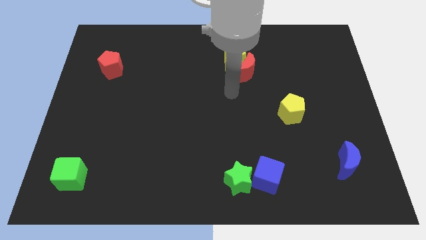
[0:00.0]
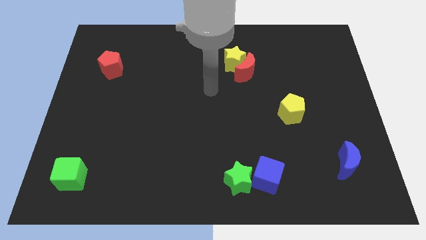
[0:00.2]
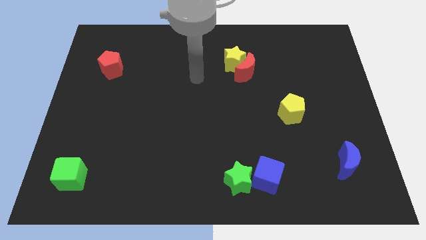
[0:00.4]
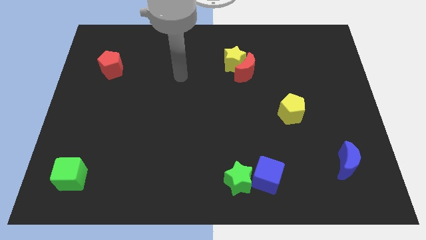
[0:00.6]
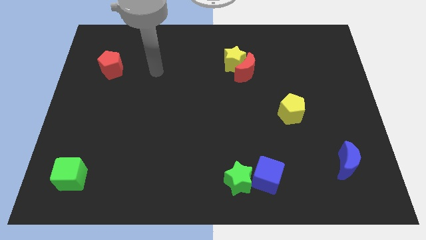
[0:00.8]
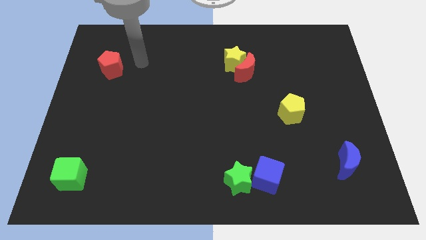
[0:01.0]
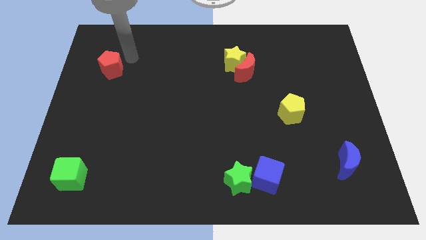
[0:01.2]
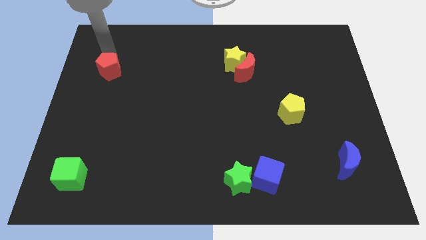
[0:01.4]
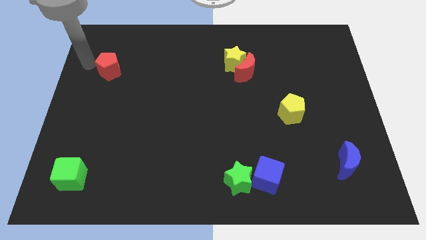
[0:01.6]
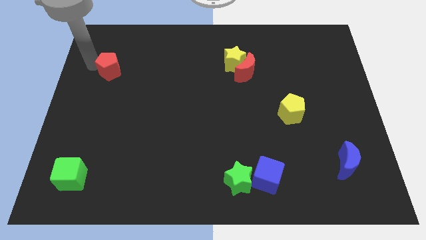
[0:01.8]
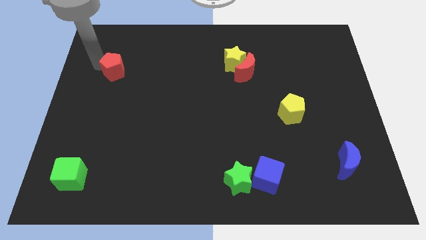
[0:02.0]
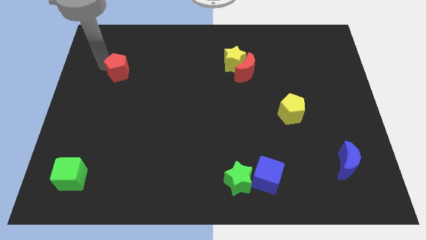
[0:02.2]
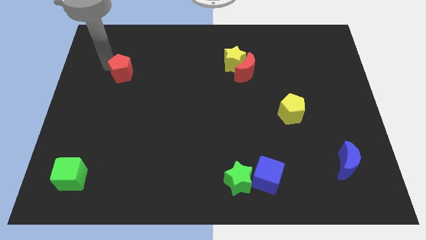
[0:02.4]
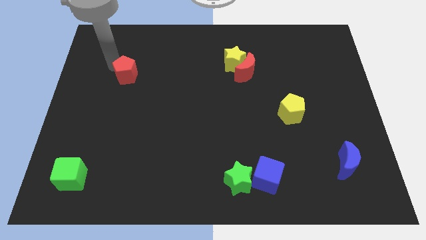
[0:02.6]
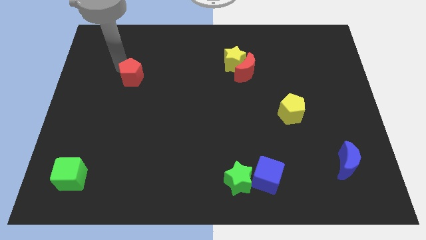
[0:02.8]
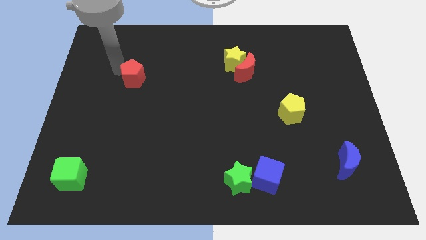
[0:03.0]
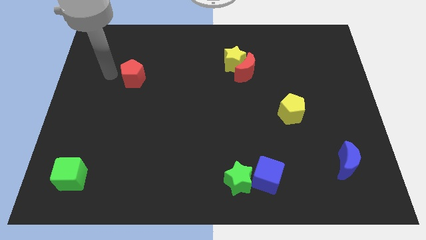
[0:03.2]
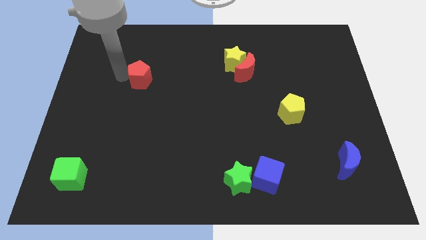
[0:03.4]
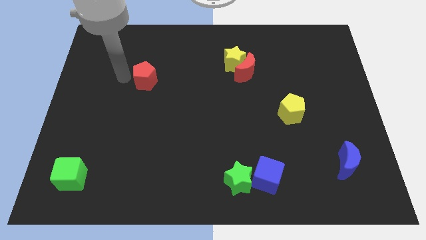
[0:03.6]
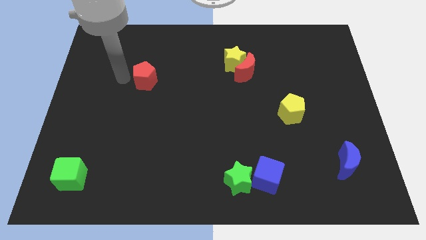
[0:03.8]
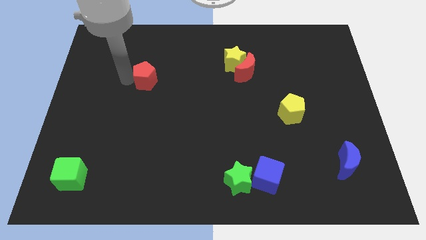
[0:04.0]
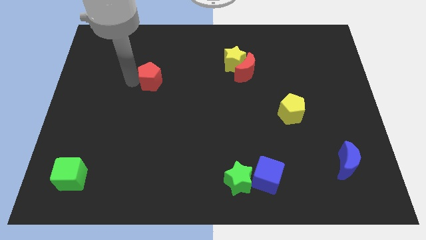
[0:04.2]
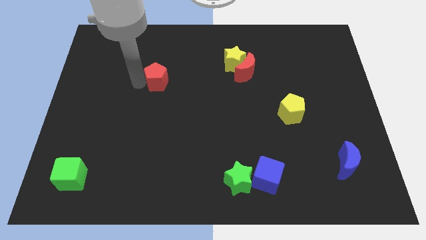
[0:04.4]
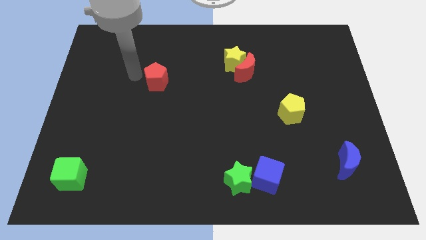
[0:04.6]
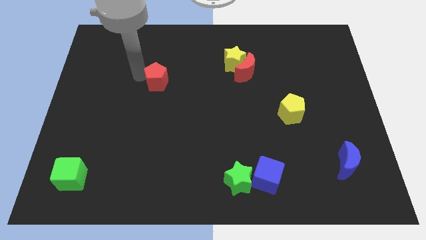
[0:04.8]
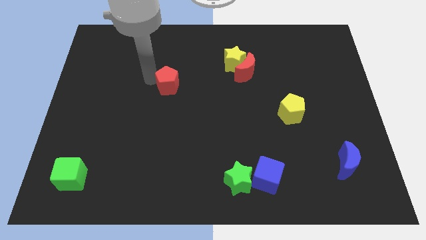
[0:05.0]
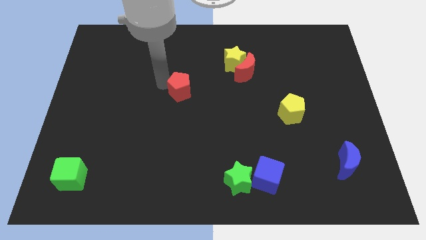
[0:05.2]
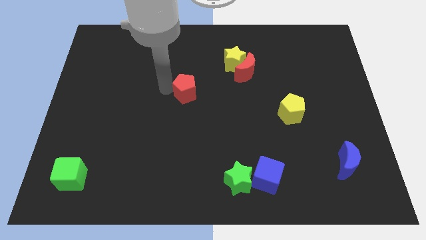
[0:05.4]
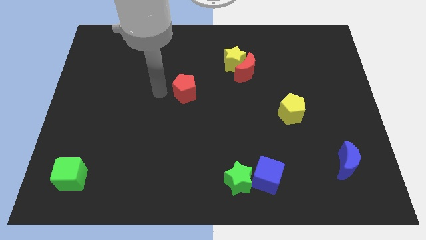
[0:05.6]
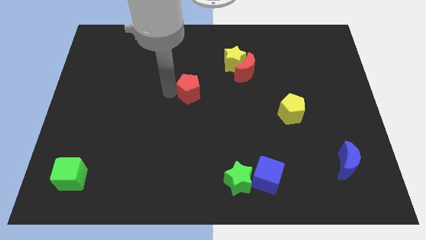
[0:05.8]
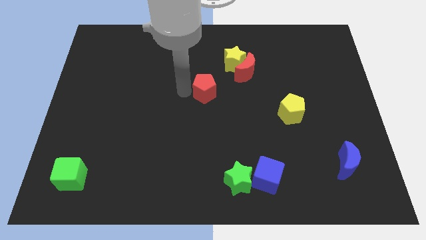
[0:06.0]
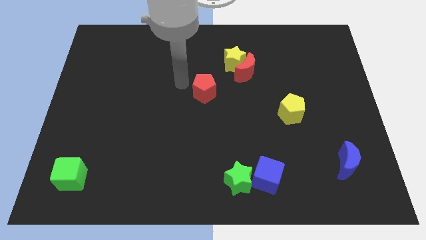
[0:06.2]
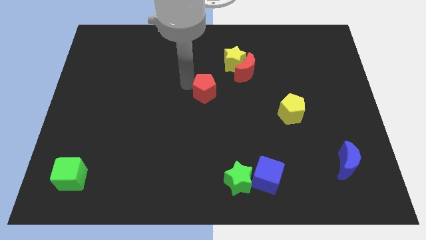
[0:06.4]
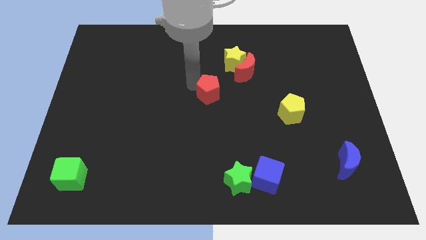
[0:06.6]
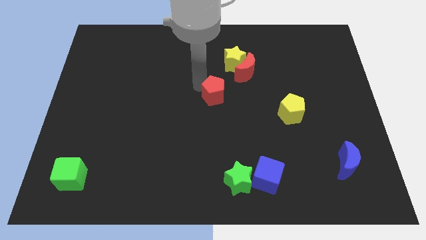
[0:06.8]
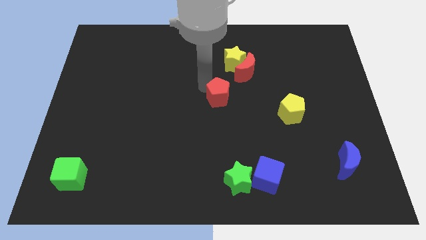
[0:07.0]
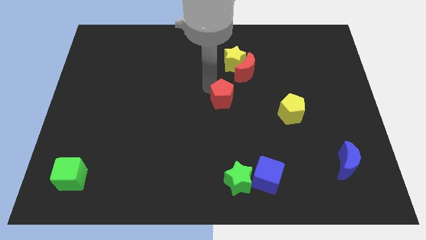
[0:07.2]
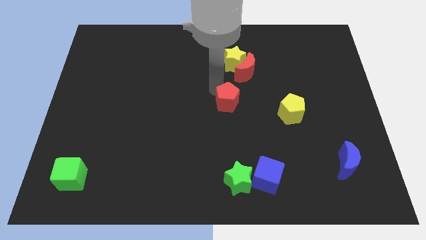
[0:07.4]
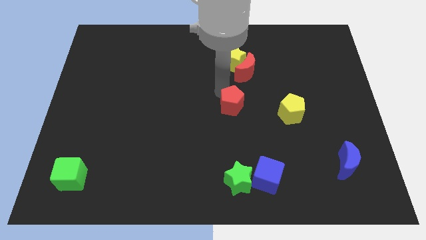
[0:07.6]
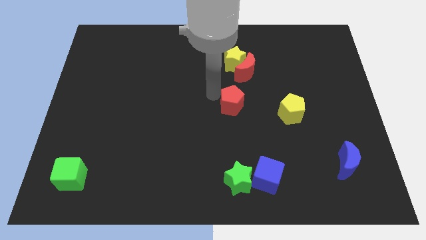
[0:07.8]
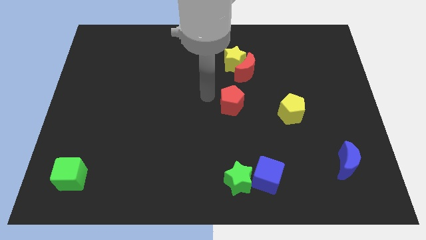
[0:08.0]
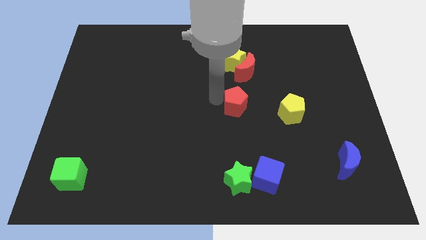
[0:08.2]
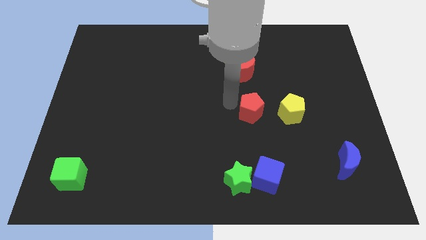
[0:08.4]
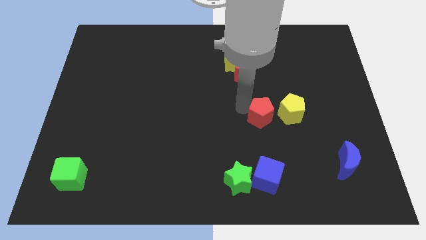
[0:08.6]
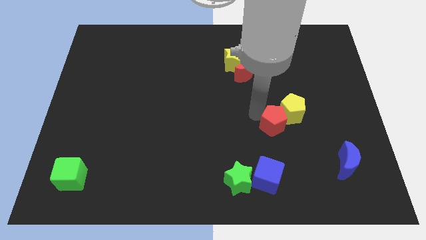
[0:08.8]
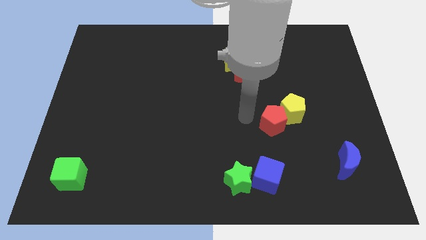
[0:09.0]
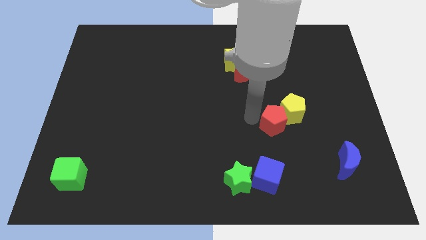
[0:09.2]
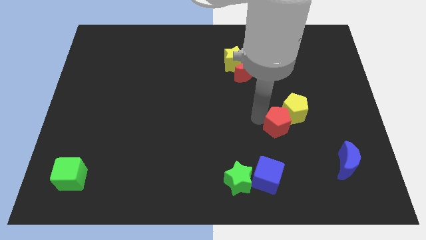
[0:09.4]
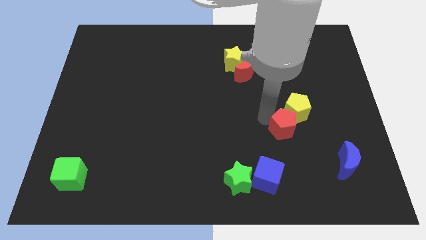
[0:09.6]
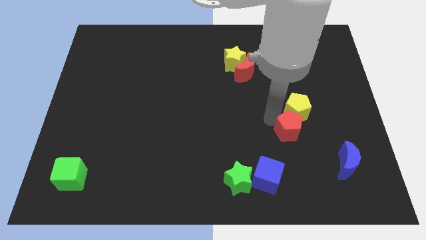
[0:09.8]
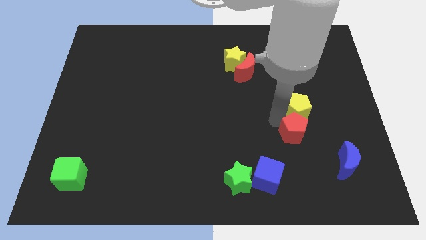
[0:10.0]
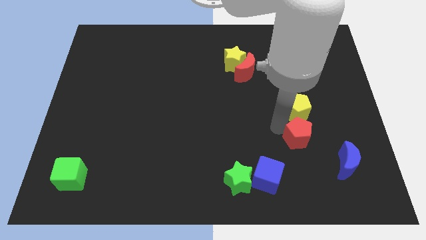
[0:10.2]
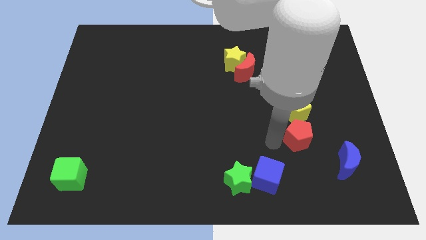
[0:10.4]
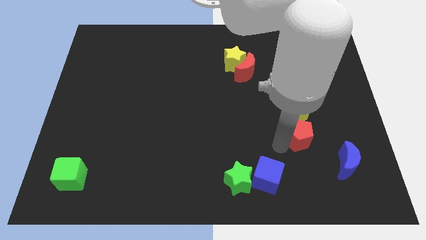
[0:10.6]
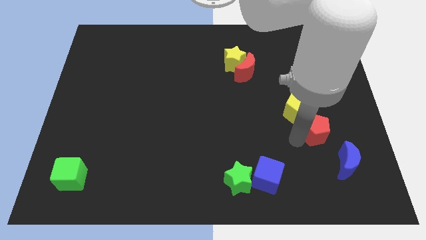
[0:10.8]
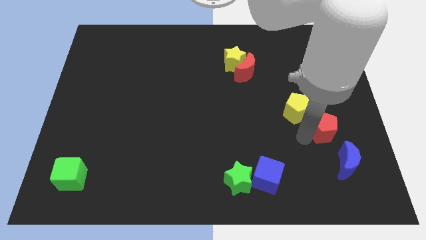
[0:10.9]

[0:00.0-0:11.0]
slide the red pentagon to the top of the blue moon

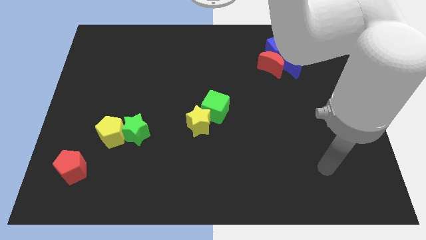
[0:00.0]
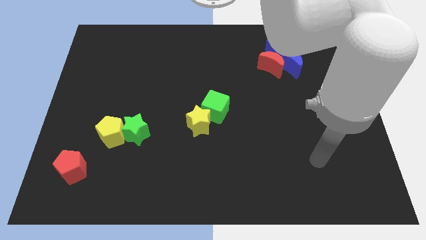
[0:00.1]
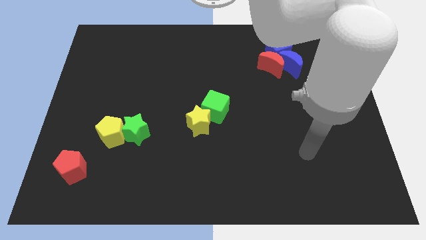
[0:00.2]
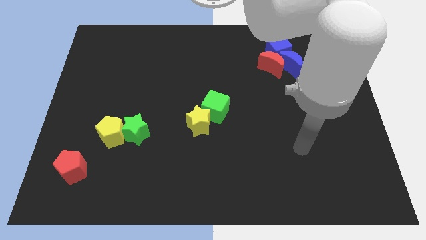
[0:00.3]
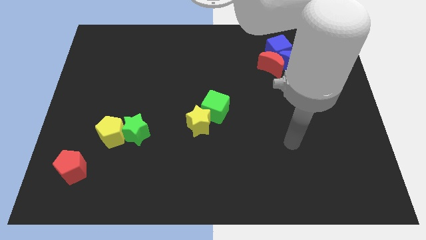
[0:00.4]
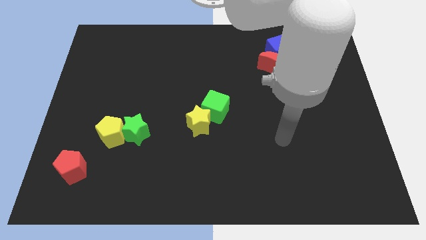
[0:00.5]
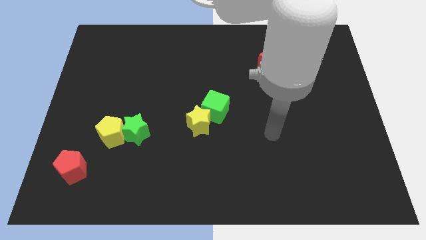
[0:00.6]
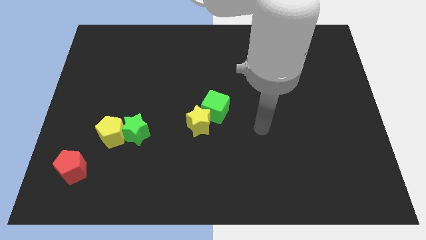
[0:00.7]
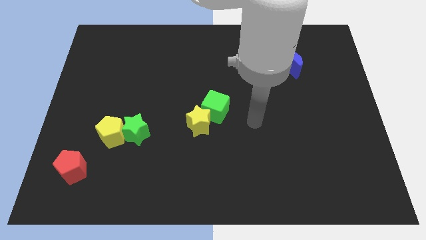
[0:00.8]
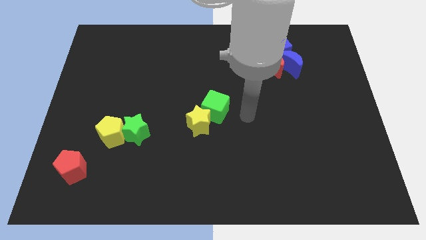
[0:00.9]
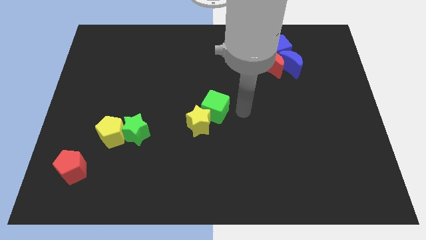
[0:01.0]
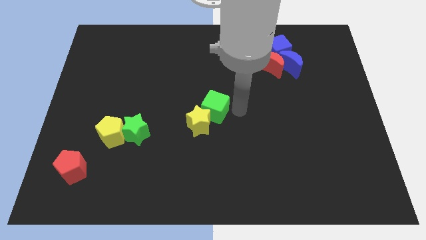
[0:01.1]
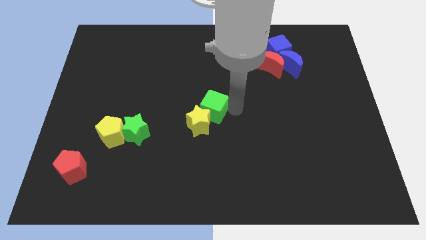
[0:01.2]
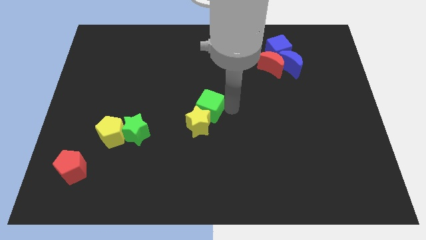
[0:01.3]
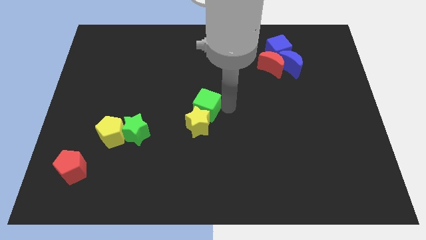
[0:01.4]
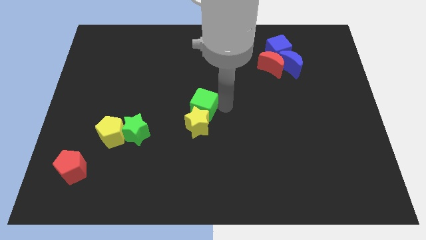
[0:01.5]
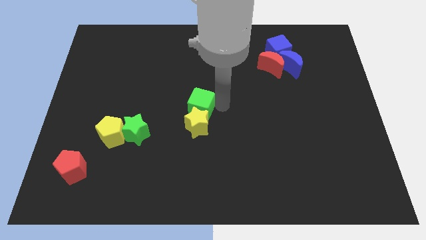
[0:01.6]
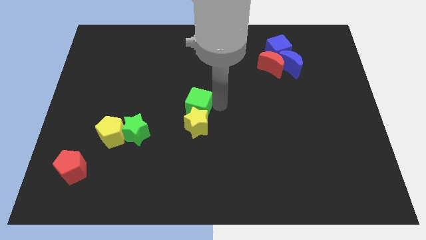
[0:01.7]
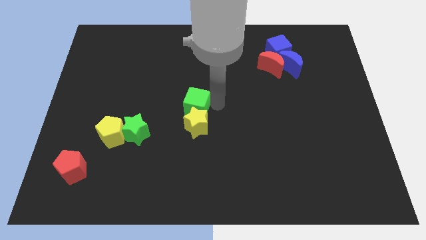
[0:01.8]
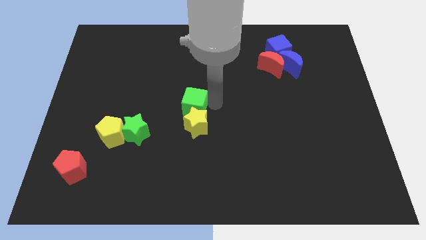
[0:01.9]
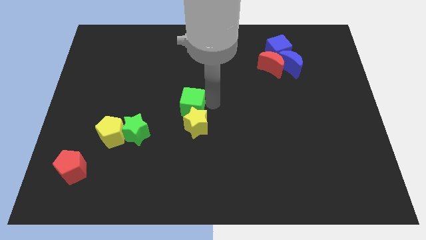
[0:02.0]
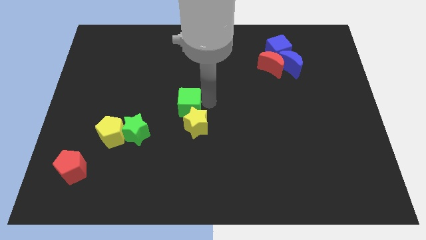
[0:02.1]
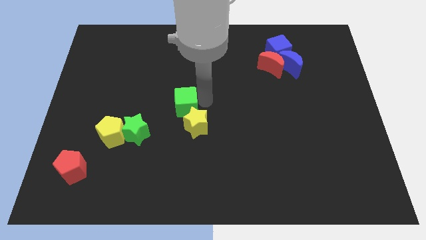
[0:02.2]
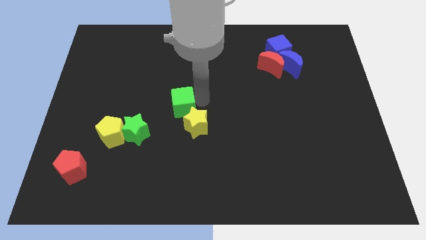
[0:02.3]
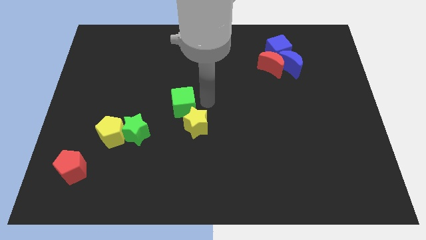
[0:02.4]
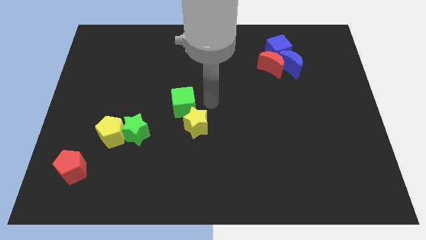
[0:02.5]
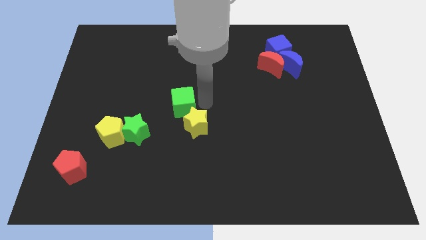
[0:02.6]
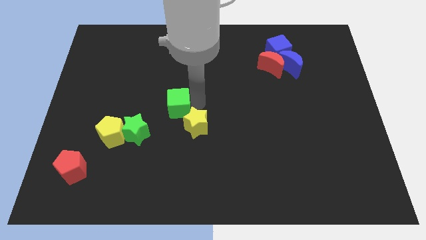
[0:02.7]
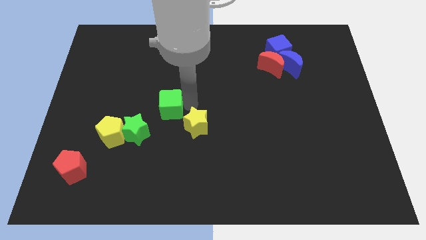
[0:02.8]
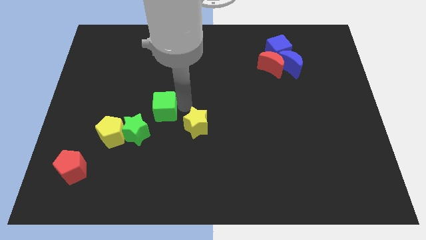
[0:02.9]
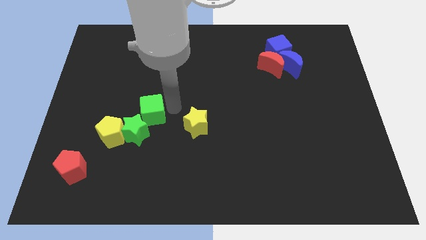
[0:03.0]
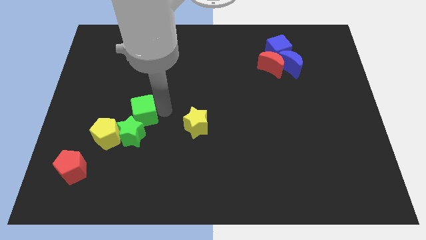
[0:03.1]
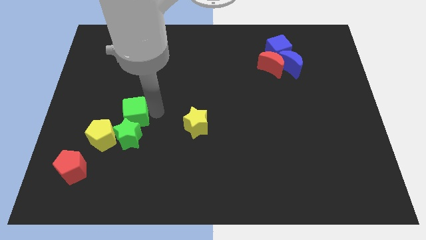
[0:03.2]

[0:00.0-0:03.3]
slide the green cube to the top left side of the green star
